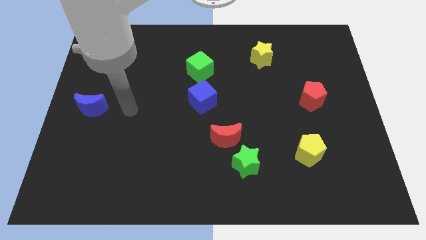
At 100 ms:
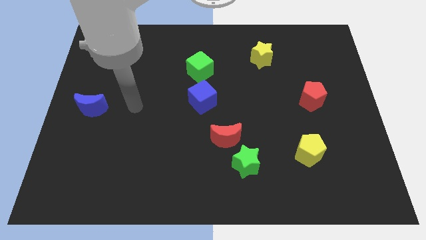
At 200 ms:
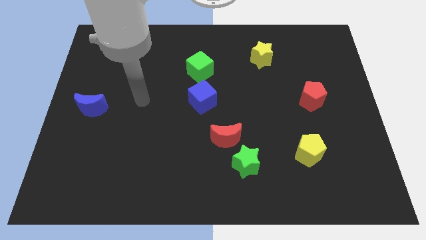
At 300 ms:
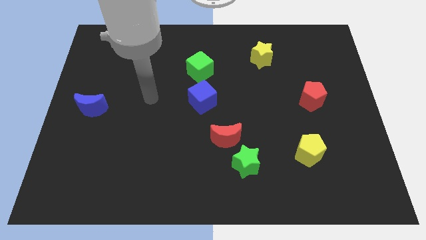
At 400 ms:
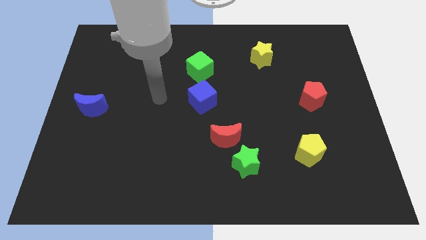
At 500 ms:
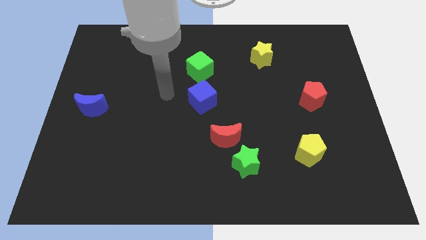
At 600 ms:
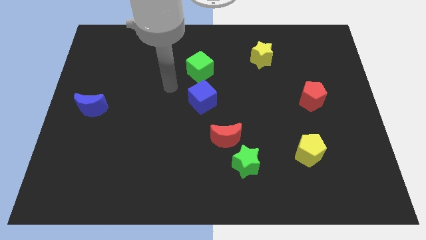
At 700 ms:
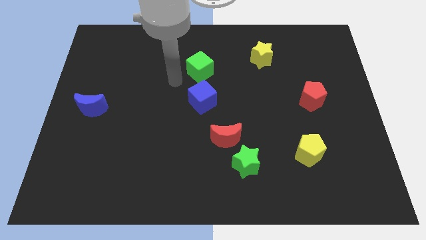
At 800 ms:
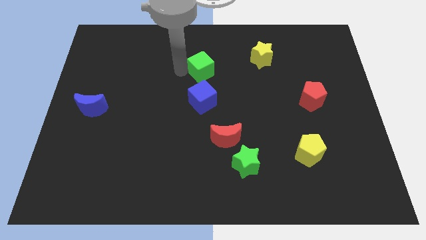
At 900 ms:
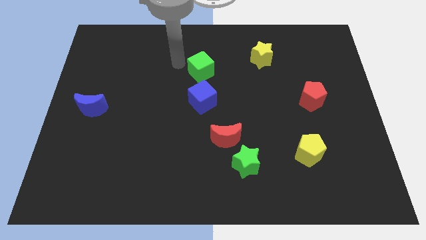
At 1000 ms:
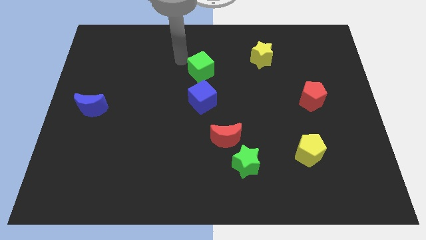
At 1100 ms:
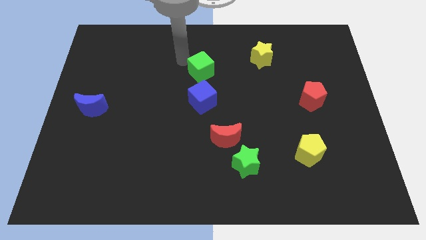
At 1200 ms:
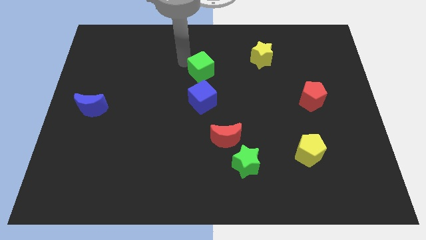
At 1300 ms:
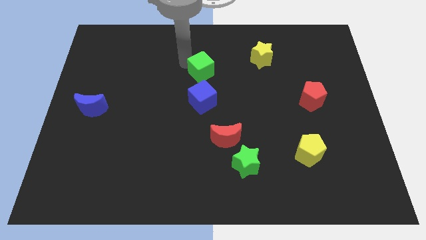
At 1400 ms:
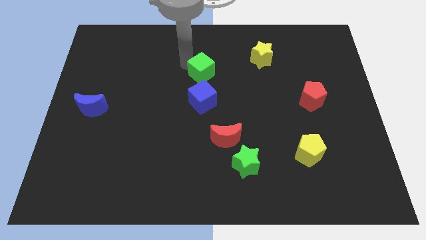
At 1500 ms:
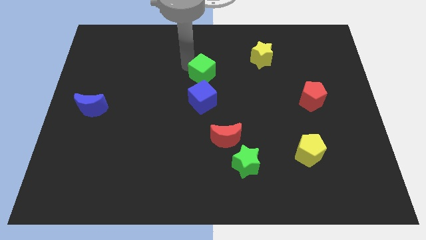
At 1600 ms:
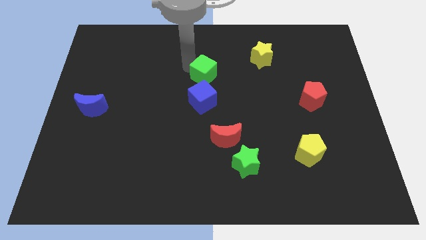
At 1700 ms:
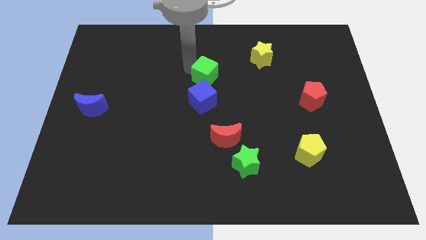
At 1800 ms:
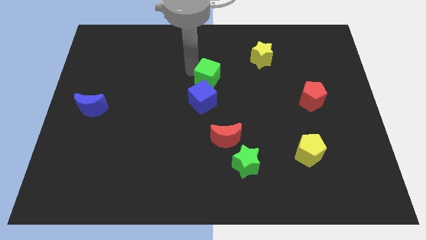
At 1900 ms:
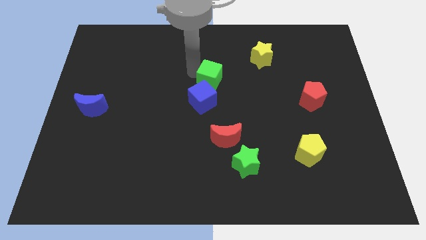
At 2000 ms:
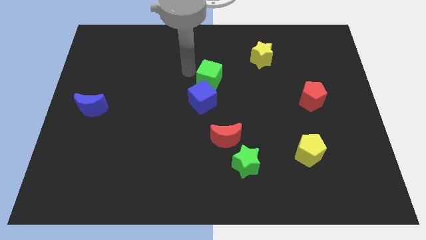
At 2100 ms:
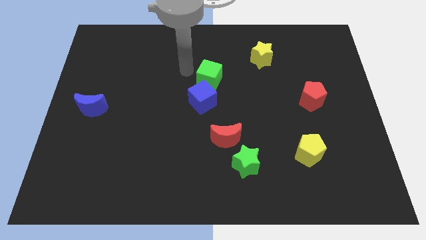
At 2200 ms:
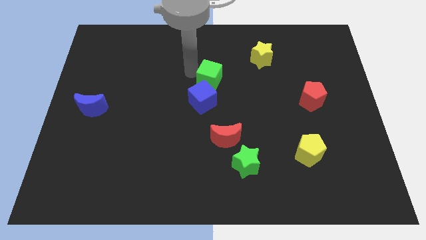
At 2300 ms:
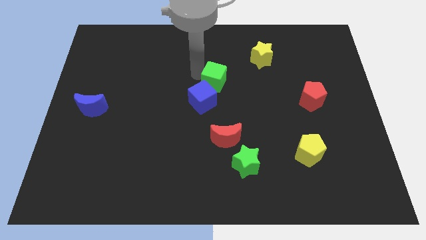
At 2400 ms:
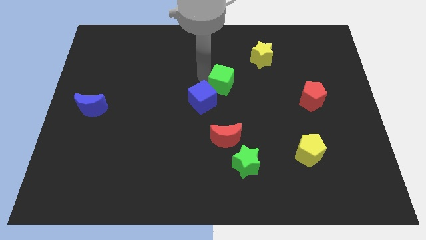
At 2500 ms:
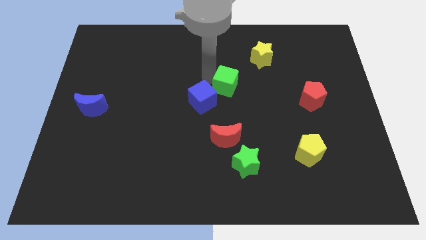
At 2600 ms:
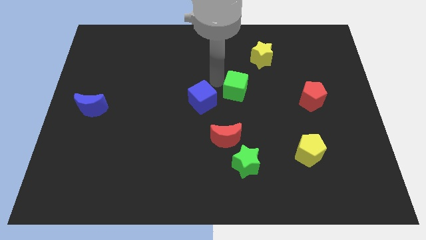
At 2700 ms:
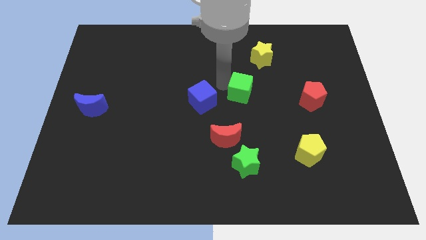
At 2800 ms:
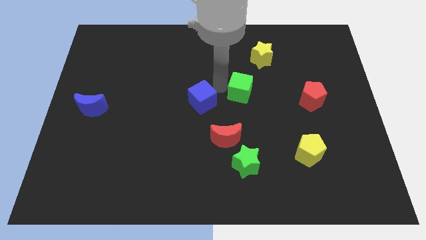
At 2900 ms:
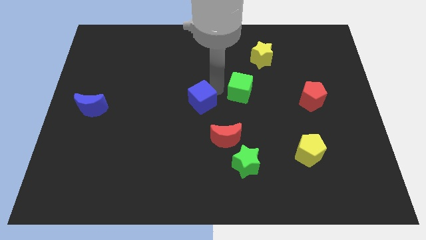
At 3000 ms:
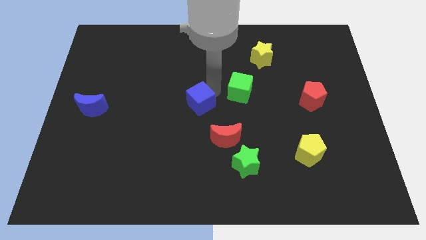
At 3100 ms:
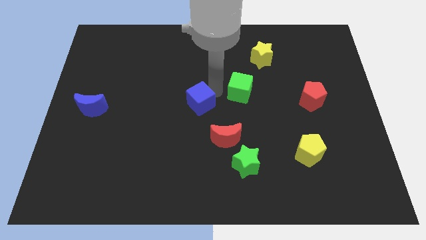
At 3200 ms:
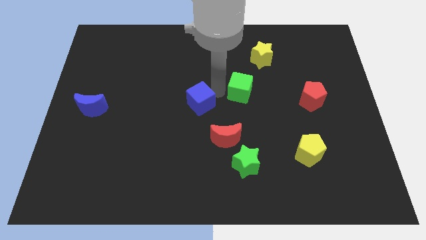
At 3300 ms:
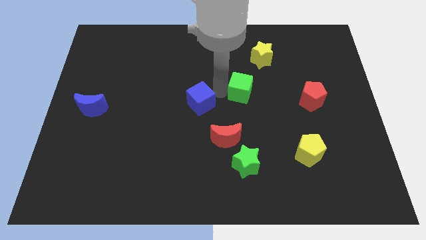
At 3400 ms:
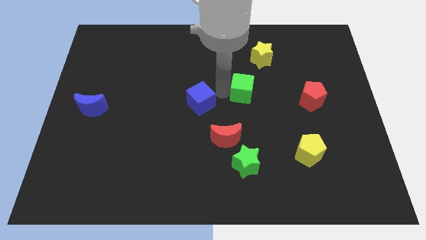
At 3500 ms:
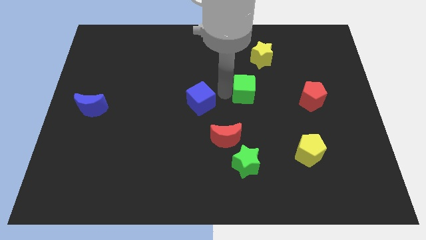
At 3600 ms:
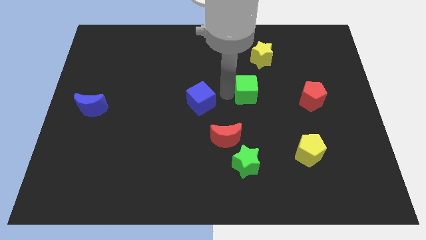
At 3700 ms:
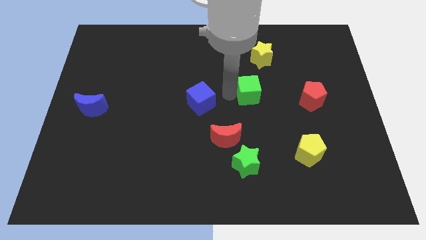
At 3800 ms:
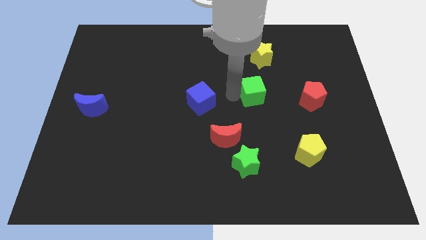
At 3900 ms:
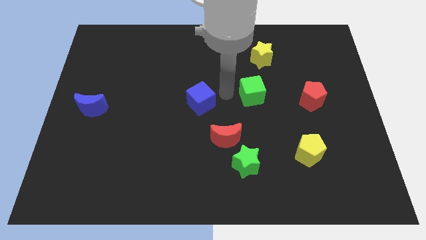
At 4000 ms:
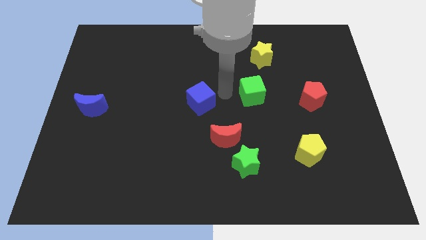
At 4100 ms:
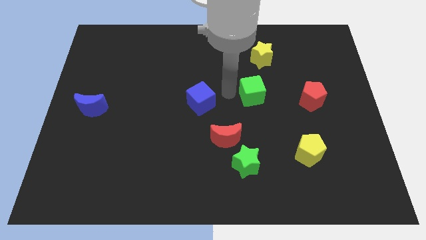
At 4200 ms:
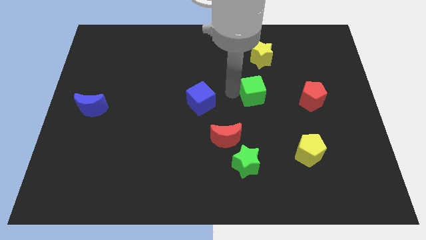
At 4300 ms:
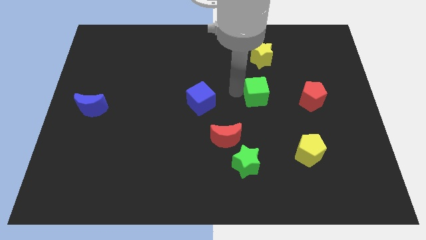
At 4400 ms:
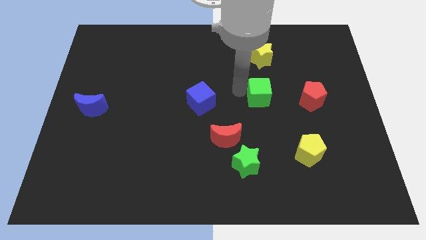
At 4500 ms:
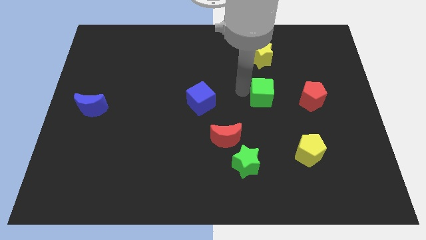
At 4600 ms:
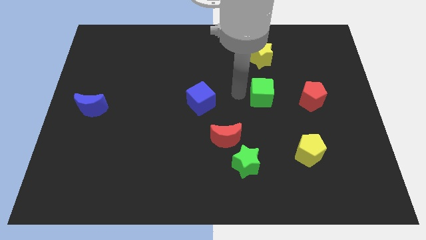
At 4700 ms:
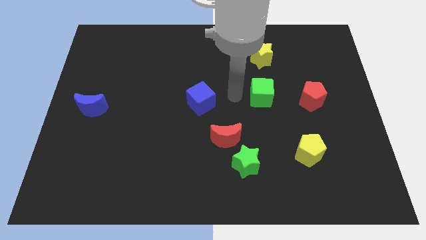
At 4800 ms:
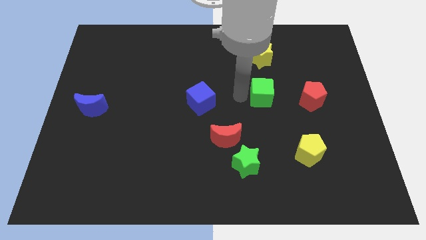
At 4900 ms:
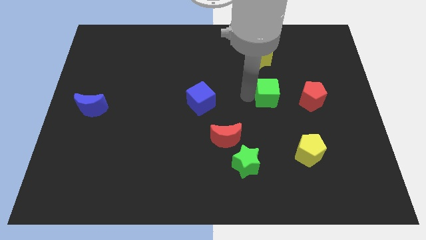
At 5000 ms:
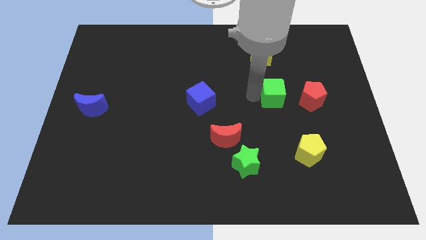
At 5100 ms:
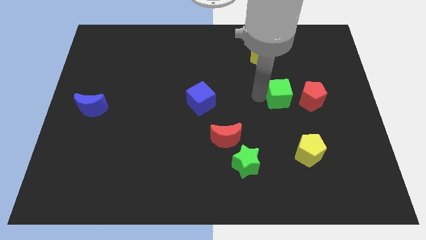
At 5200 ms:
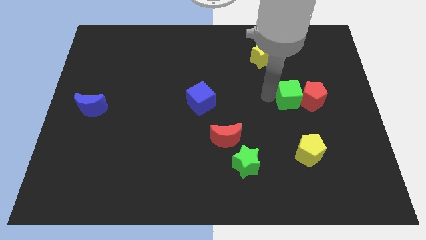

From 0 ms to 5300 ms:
slide the green cube to the red pentagon

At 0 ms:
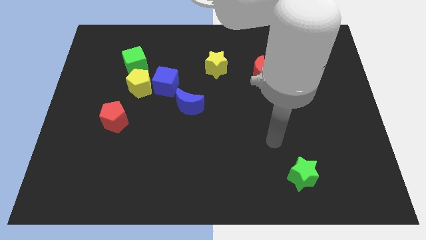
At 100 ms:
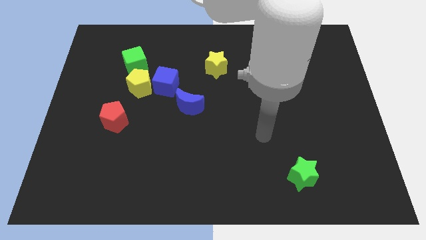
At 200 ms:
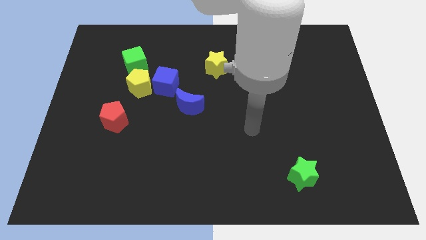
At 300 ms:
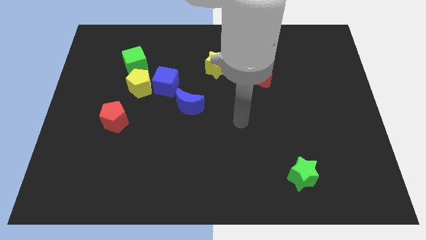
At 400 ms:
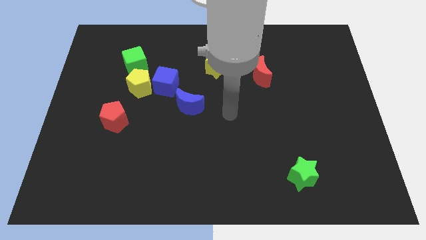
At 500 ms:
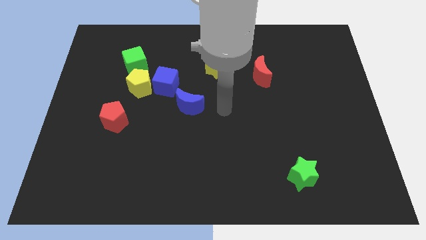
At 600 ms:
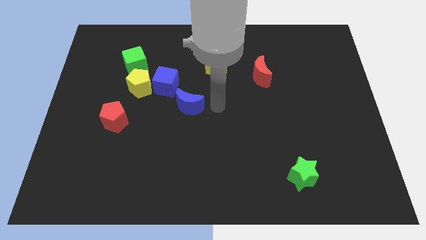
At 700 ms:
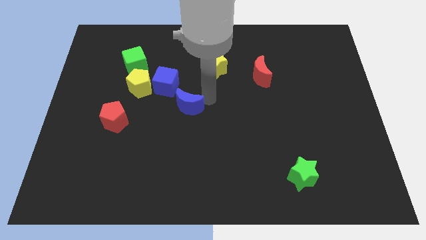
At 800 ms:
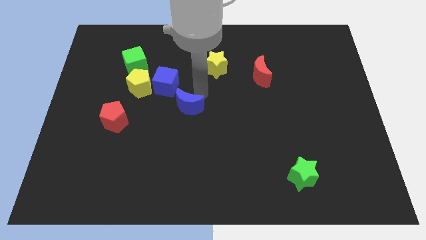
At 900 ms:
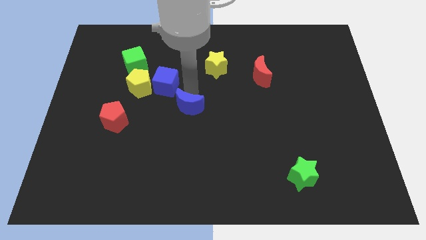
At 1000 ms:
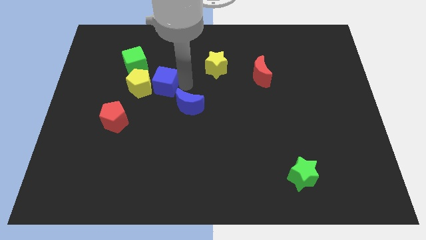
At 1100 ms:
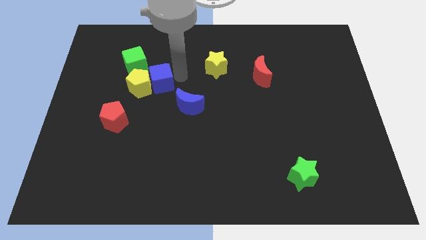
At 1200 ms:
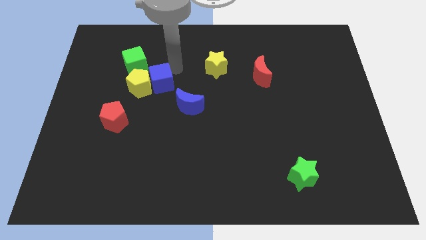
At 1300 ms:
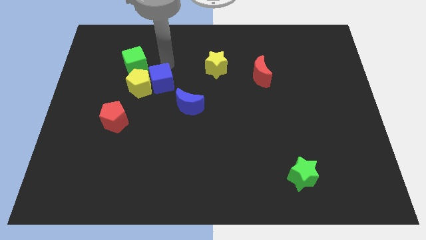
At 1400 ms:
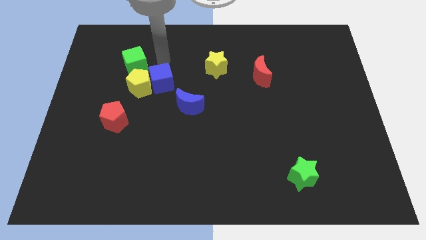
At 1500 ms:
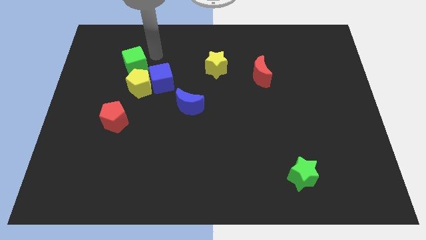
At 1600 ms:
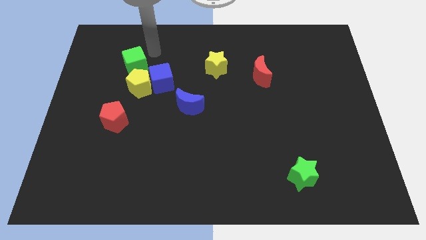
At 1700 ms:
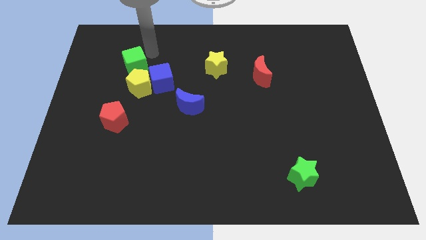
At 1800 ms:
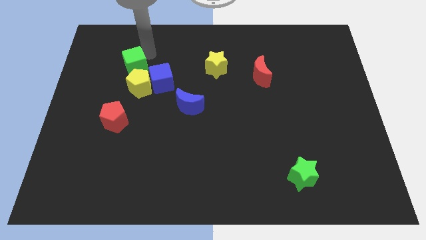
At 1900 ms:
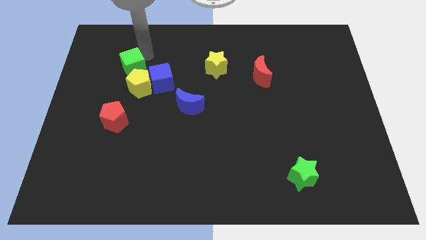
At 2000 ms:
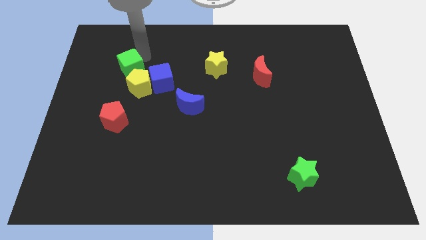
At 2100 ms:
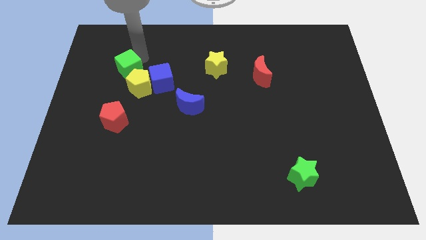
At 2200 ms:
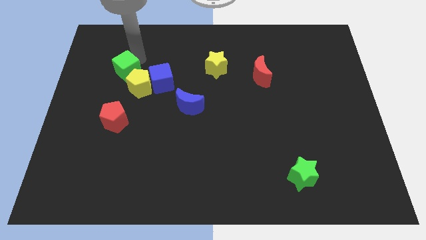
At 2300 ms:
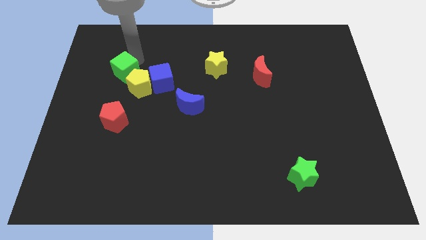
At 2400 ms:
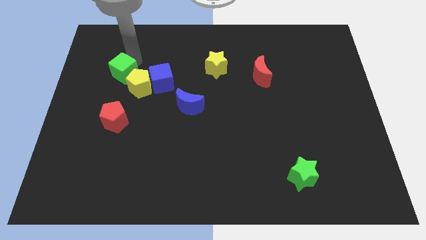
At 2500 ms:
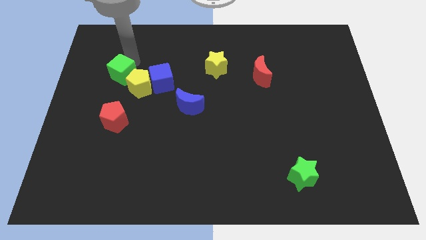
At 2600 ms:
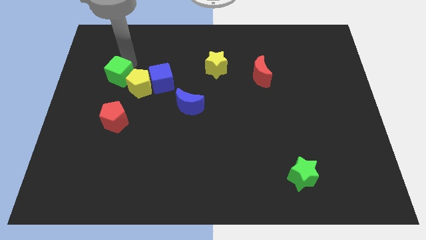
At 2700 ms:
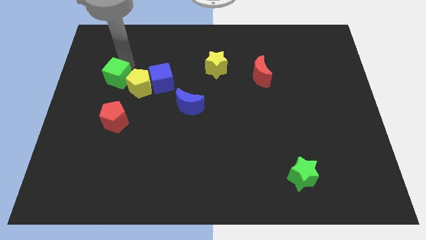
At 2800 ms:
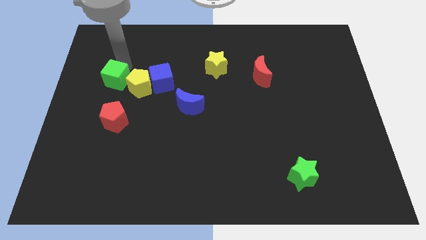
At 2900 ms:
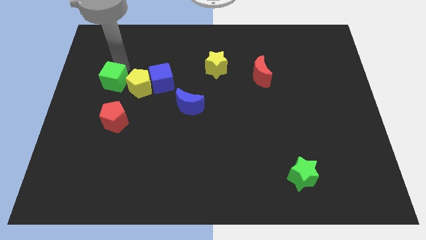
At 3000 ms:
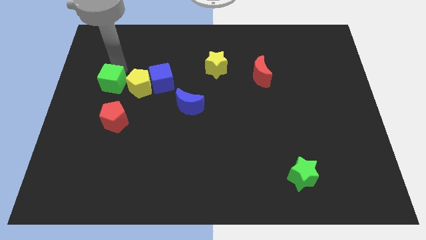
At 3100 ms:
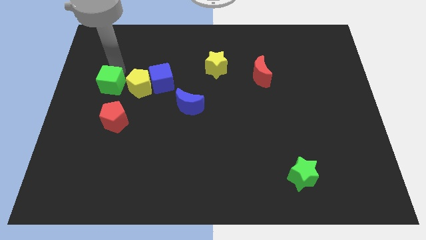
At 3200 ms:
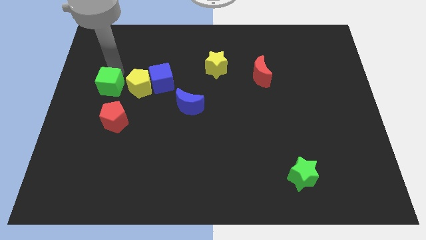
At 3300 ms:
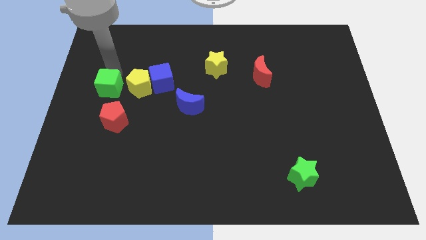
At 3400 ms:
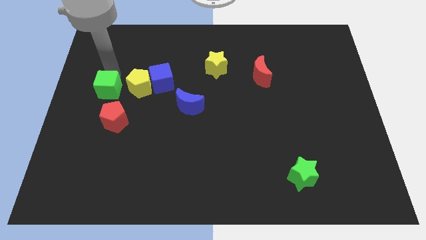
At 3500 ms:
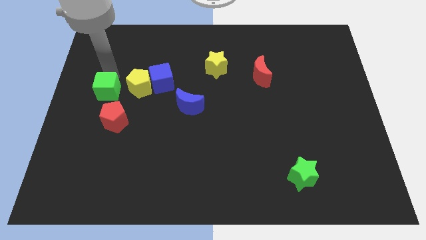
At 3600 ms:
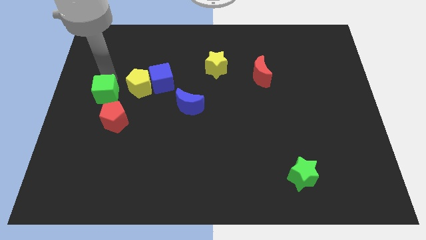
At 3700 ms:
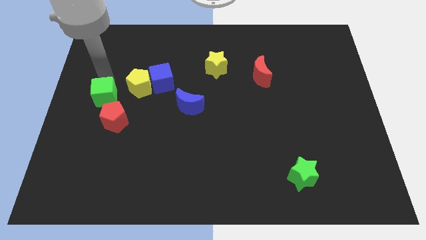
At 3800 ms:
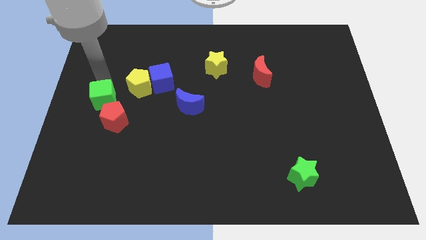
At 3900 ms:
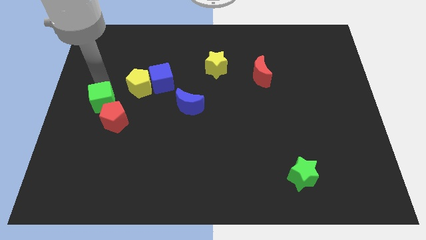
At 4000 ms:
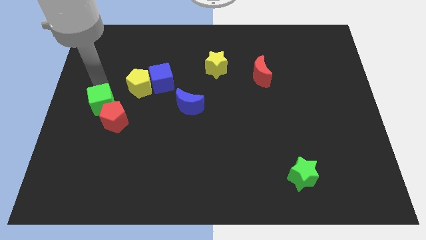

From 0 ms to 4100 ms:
move the green cube next to the red pentagon
